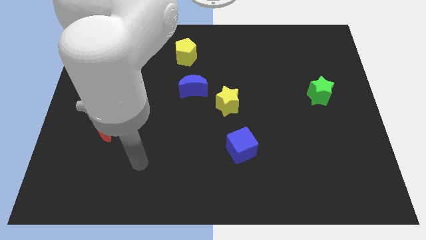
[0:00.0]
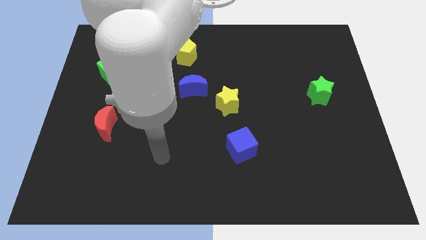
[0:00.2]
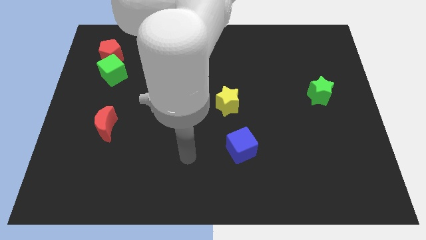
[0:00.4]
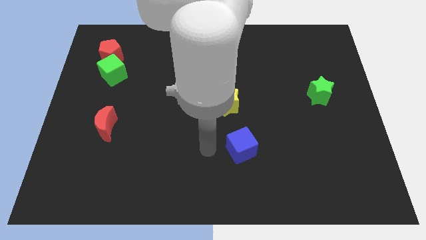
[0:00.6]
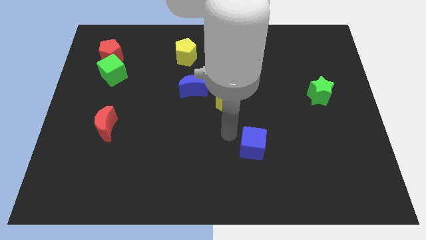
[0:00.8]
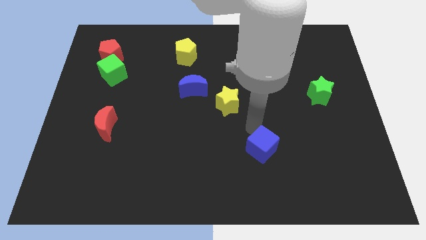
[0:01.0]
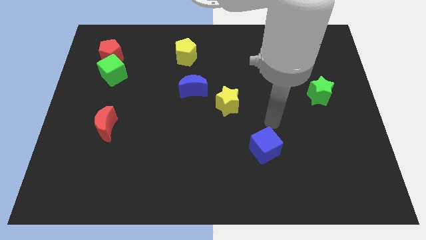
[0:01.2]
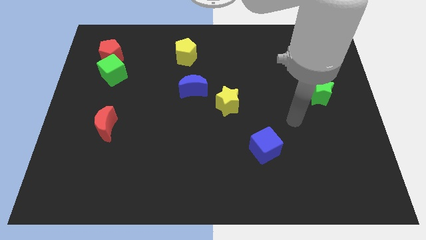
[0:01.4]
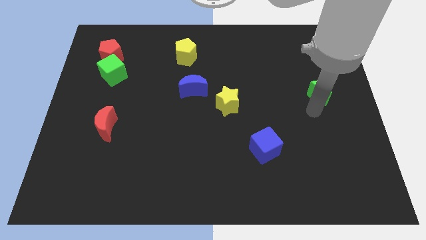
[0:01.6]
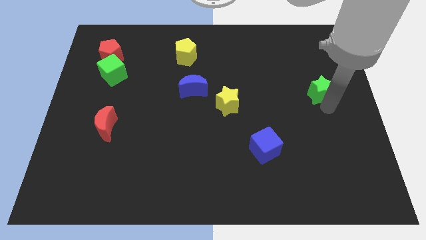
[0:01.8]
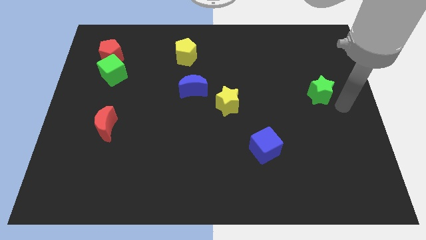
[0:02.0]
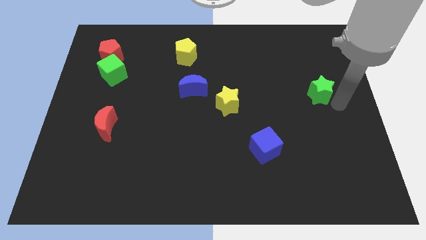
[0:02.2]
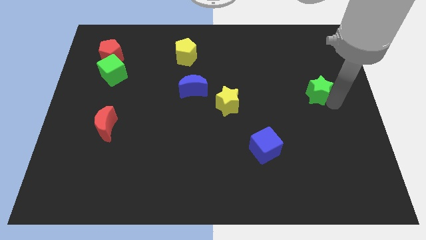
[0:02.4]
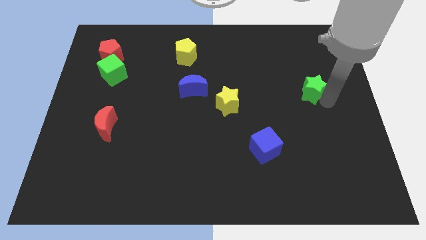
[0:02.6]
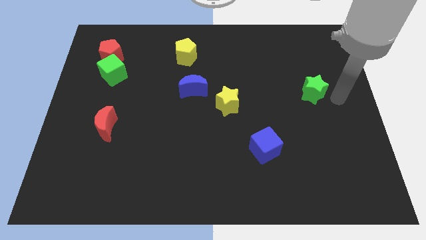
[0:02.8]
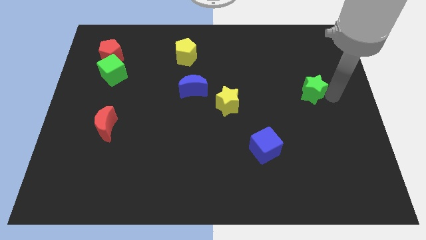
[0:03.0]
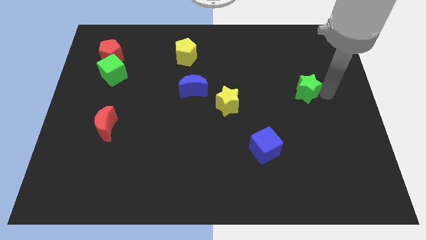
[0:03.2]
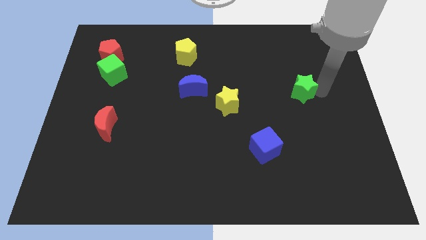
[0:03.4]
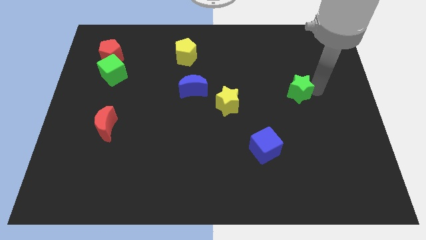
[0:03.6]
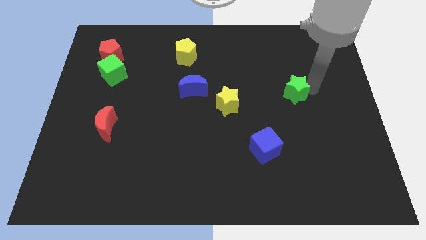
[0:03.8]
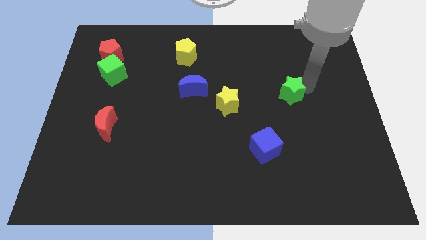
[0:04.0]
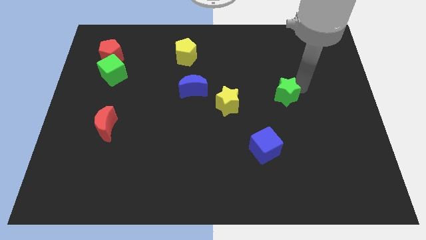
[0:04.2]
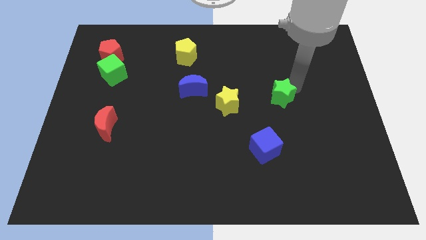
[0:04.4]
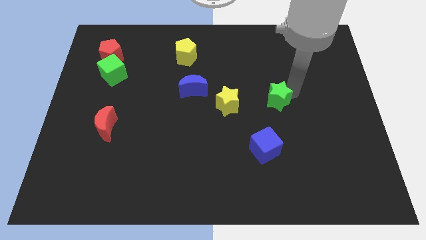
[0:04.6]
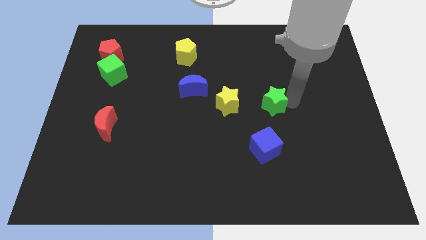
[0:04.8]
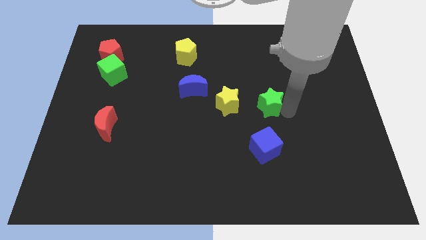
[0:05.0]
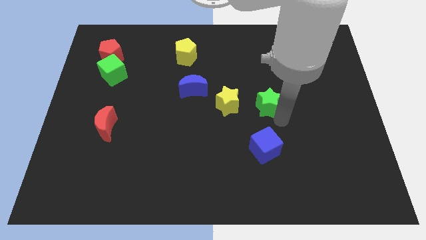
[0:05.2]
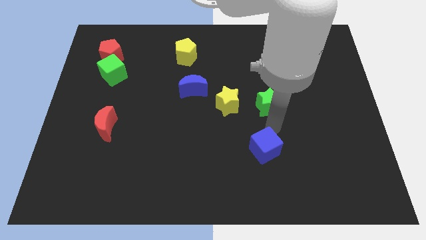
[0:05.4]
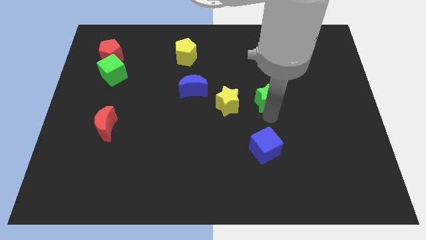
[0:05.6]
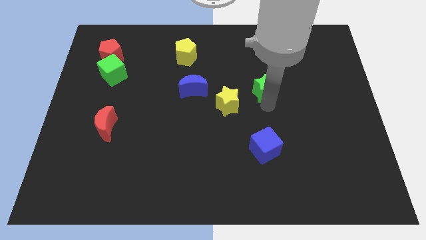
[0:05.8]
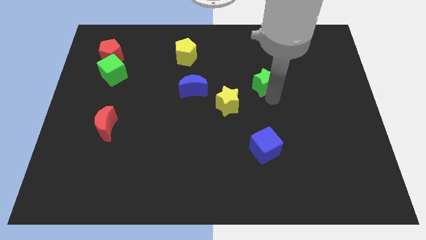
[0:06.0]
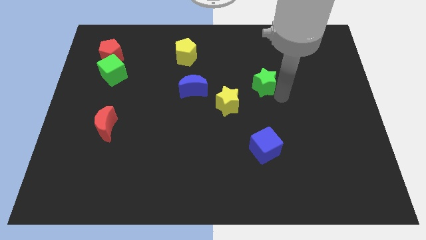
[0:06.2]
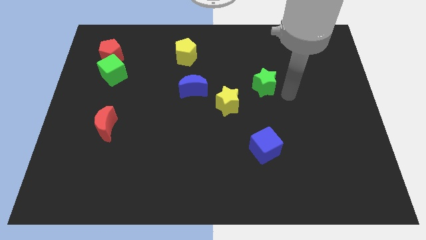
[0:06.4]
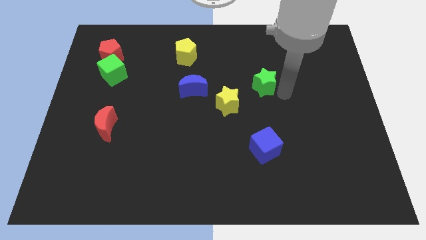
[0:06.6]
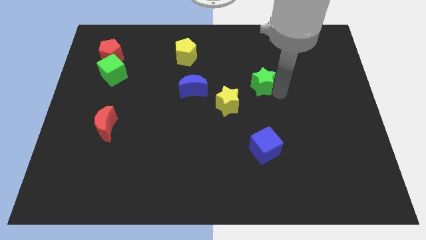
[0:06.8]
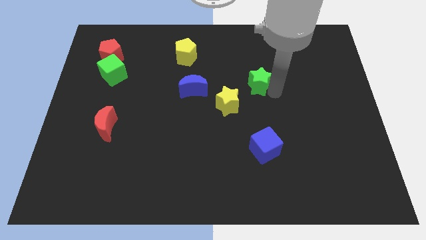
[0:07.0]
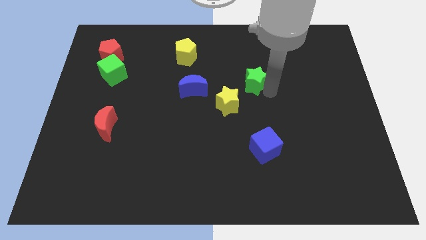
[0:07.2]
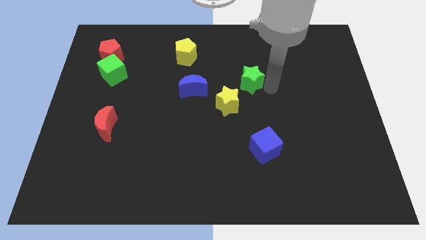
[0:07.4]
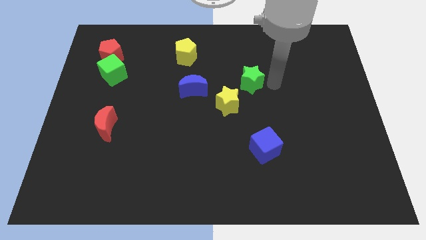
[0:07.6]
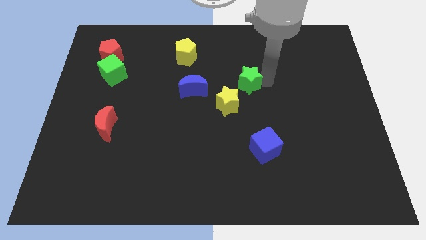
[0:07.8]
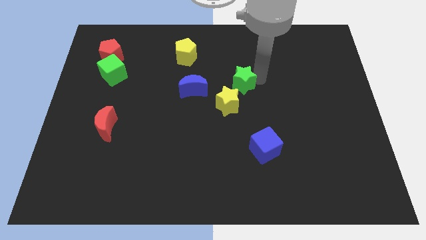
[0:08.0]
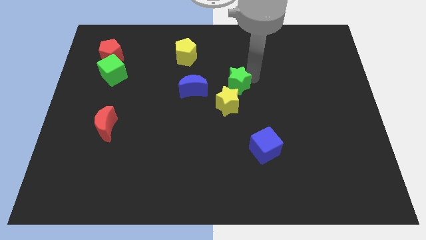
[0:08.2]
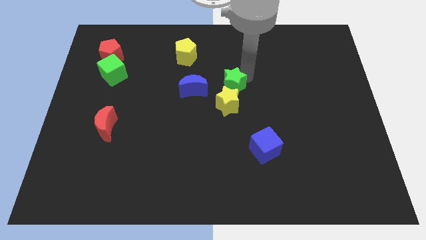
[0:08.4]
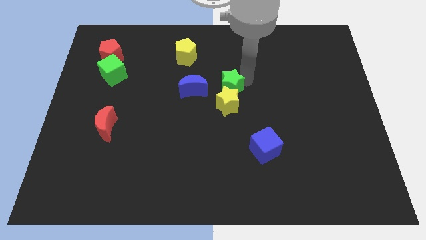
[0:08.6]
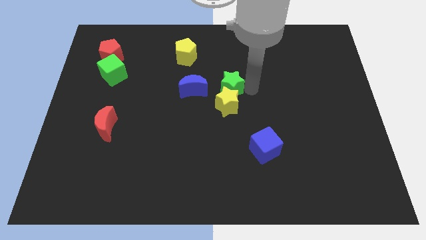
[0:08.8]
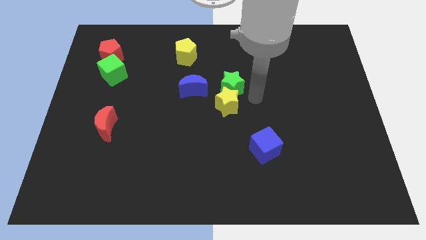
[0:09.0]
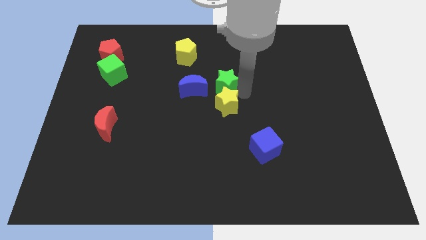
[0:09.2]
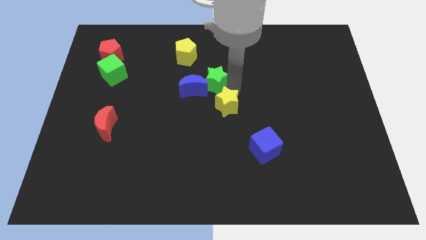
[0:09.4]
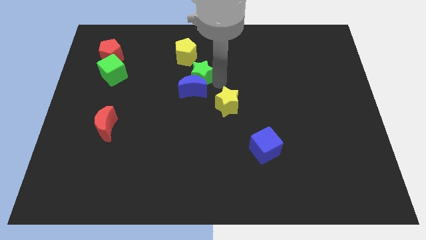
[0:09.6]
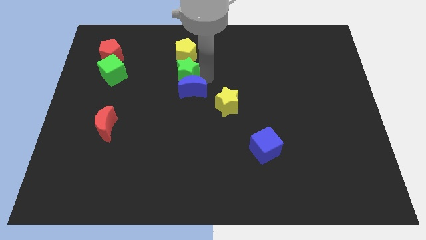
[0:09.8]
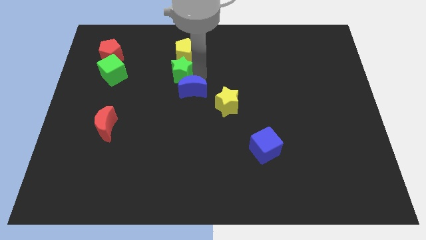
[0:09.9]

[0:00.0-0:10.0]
put the green star diagonally down and to the left of the yellow pentagon

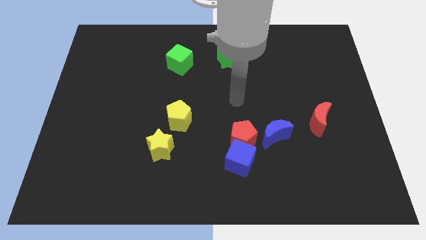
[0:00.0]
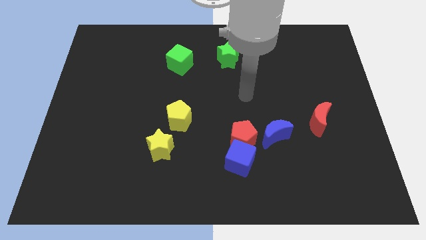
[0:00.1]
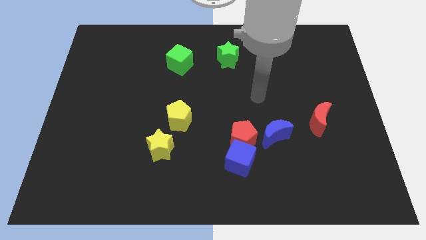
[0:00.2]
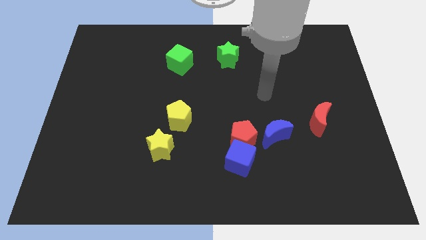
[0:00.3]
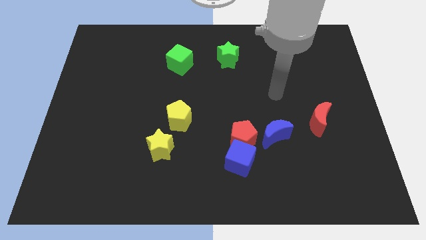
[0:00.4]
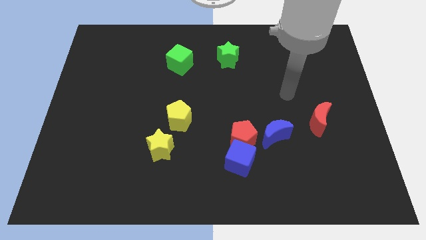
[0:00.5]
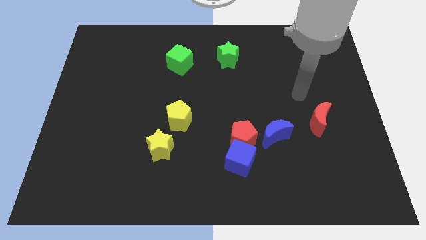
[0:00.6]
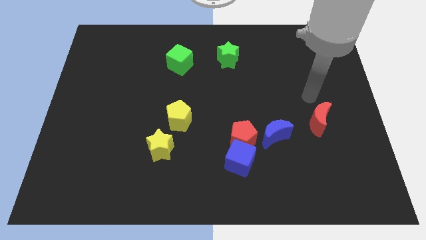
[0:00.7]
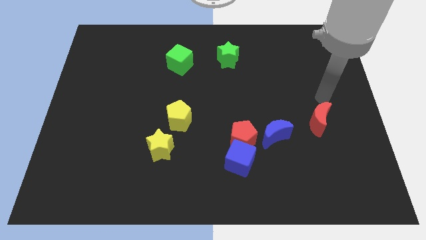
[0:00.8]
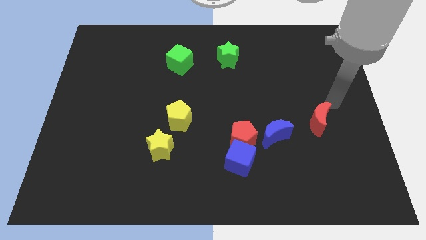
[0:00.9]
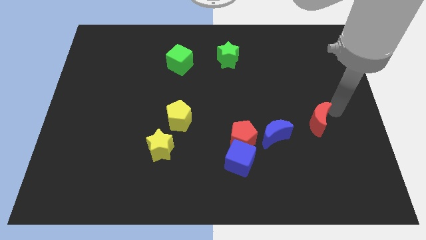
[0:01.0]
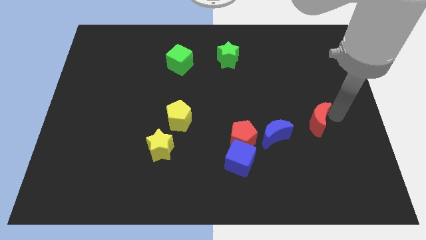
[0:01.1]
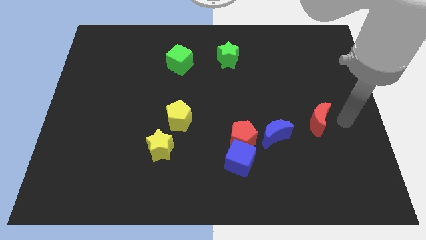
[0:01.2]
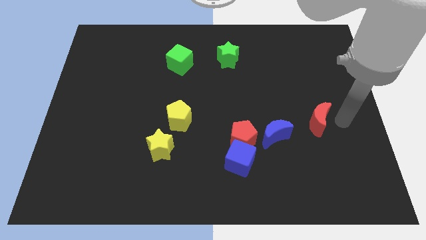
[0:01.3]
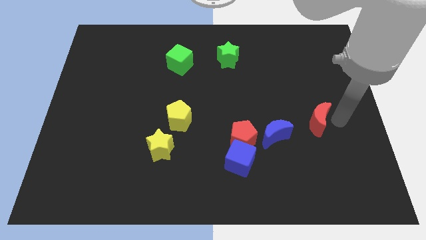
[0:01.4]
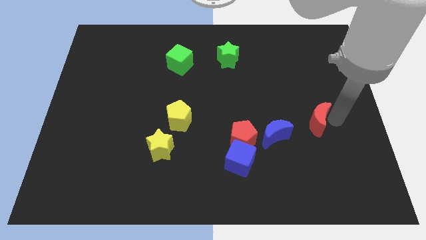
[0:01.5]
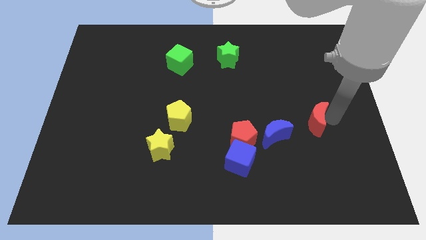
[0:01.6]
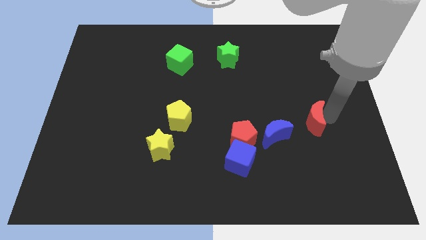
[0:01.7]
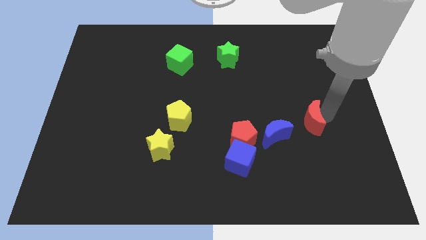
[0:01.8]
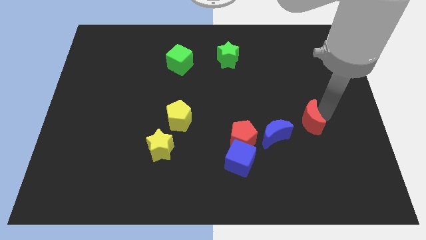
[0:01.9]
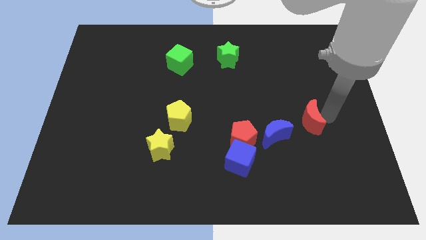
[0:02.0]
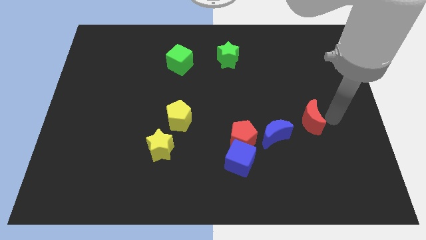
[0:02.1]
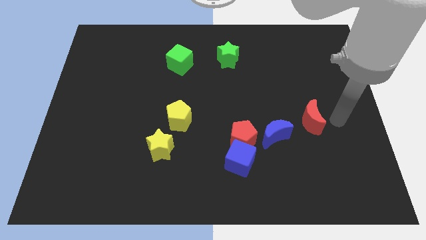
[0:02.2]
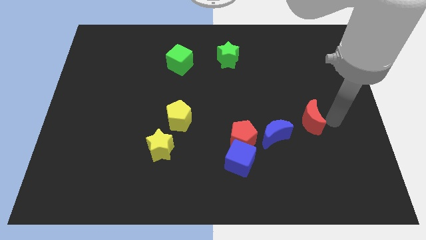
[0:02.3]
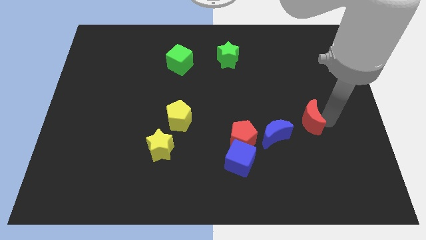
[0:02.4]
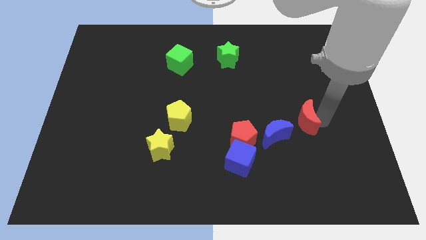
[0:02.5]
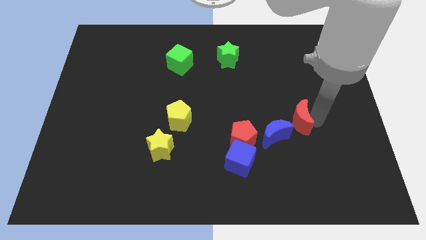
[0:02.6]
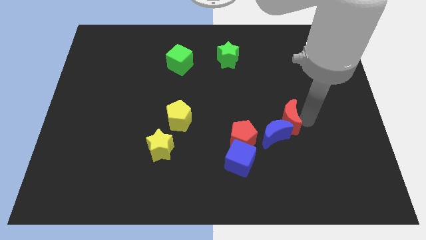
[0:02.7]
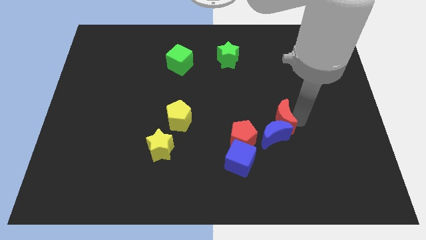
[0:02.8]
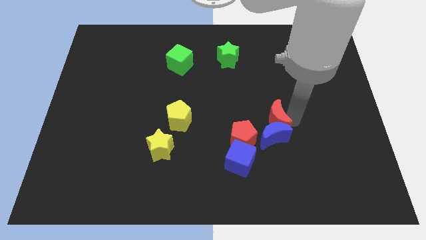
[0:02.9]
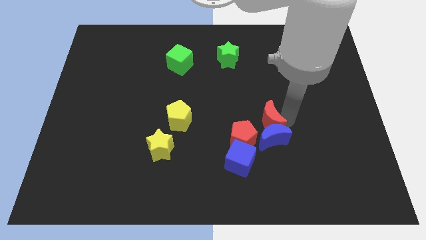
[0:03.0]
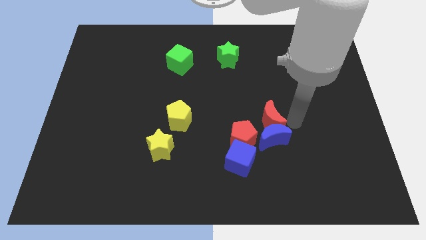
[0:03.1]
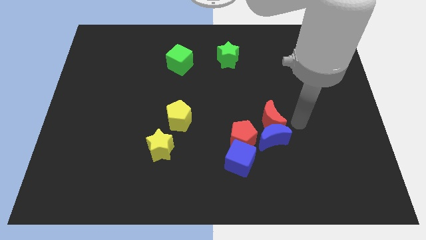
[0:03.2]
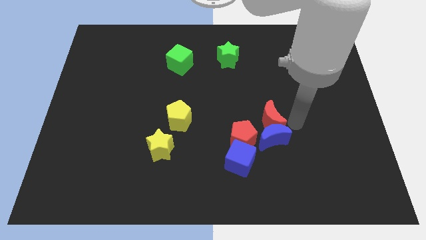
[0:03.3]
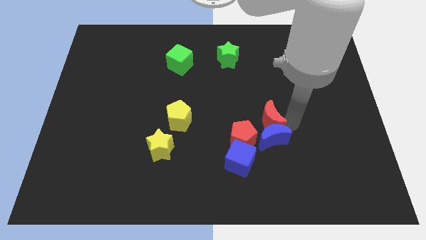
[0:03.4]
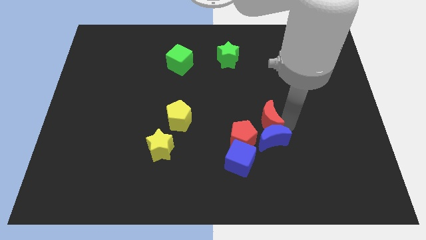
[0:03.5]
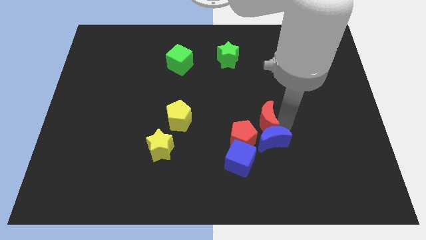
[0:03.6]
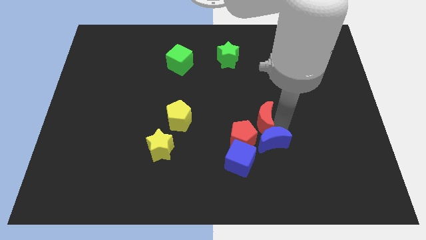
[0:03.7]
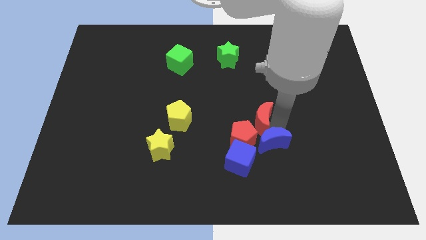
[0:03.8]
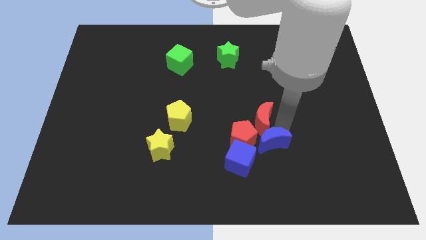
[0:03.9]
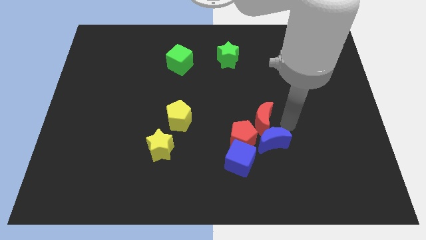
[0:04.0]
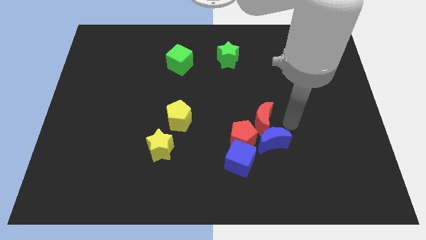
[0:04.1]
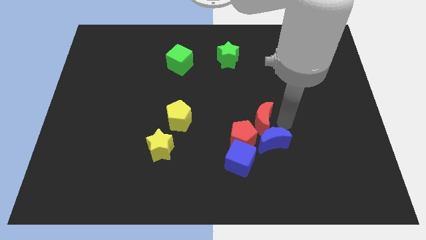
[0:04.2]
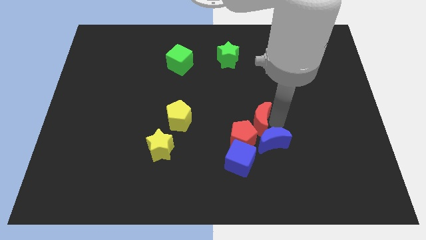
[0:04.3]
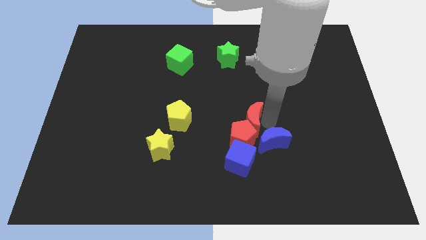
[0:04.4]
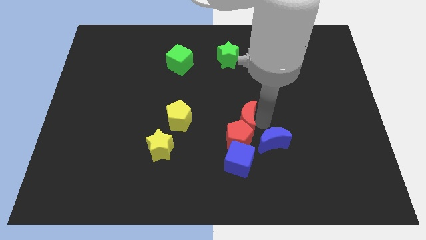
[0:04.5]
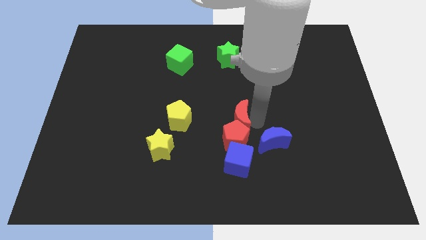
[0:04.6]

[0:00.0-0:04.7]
put the red moon to the top left of the red pentagon
